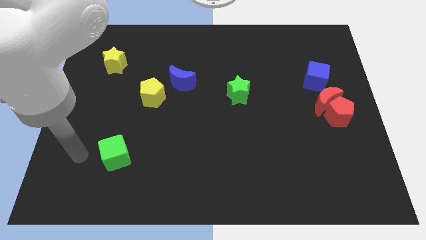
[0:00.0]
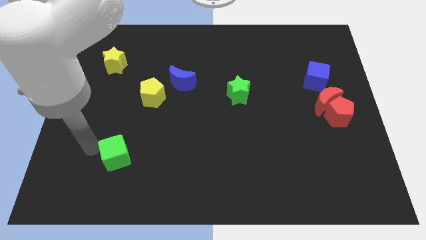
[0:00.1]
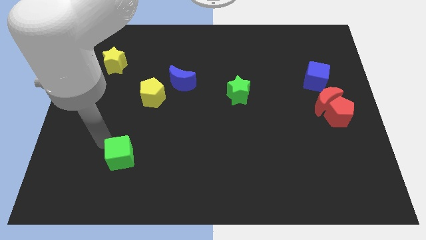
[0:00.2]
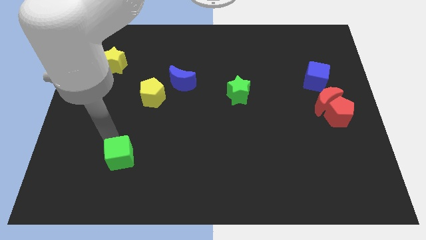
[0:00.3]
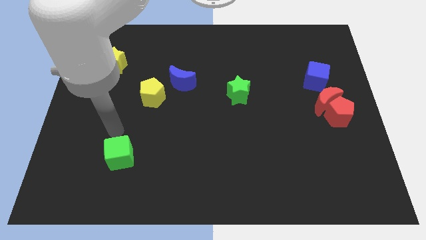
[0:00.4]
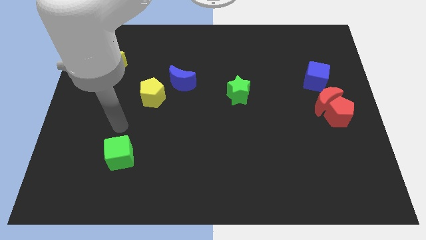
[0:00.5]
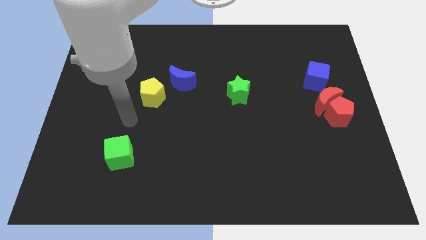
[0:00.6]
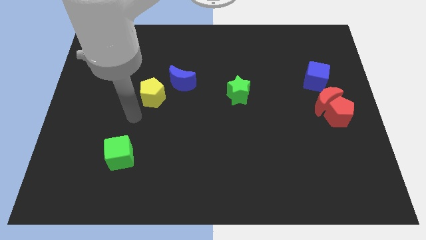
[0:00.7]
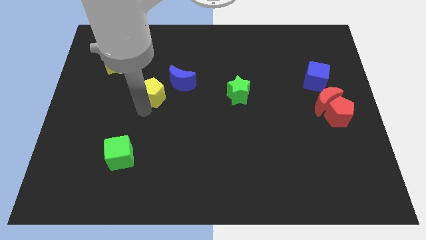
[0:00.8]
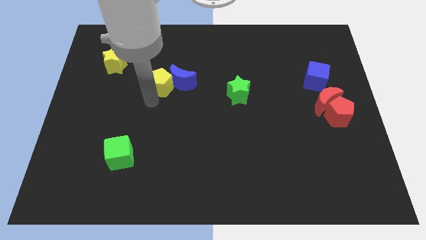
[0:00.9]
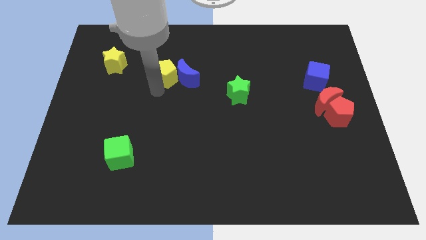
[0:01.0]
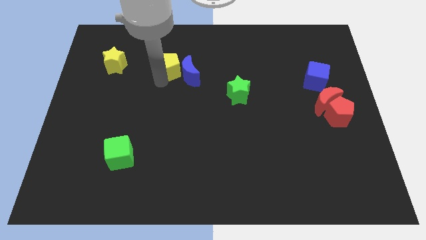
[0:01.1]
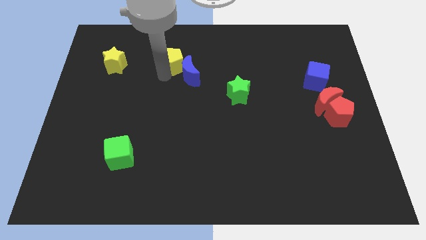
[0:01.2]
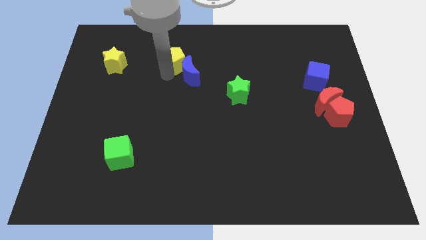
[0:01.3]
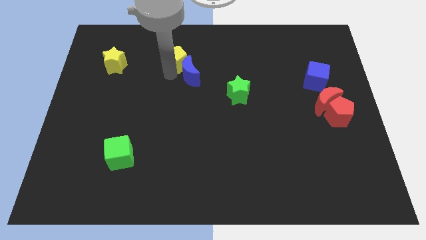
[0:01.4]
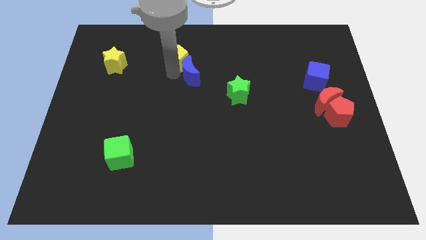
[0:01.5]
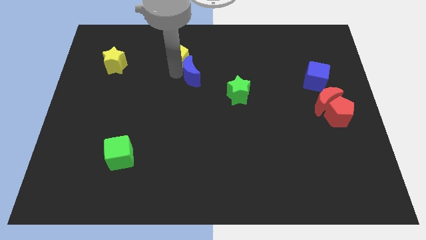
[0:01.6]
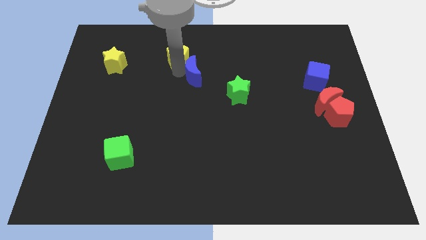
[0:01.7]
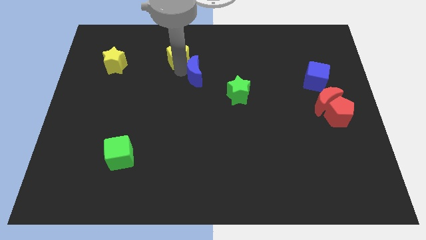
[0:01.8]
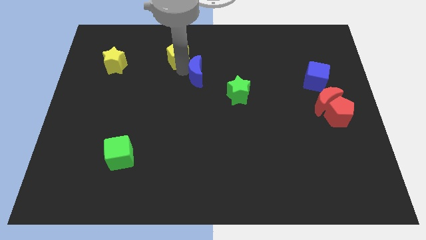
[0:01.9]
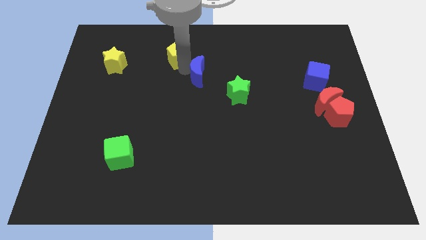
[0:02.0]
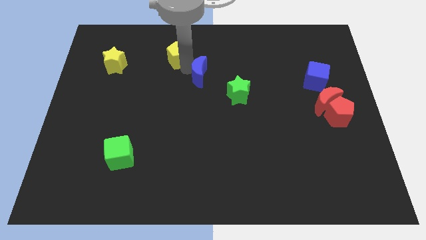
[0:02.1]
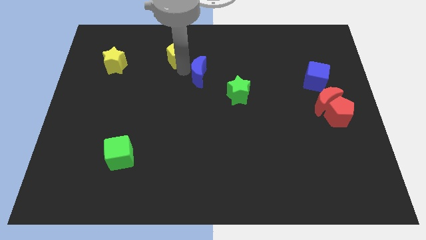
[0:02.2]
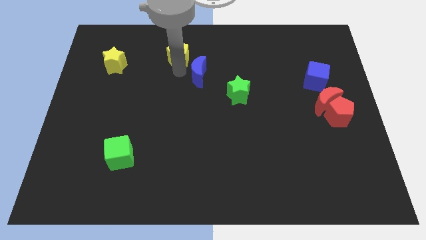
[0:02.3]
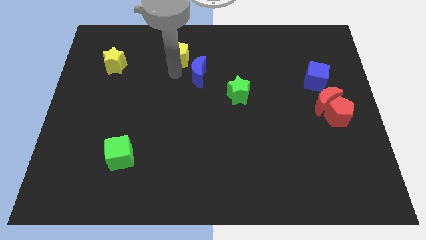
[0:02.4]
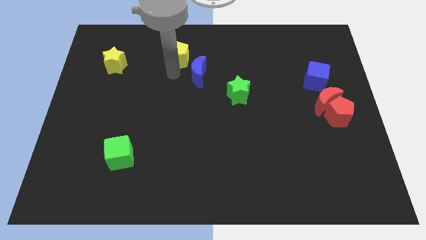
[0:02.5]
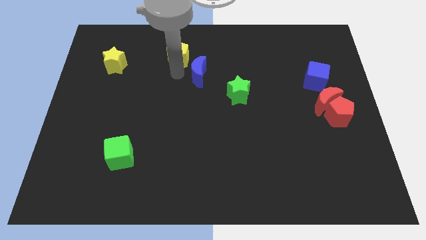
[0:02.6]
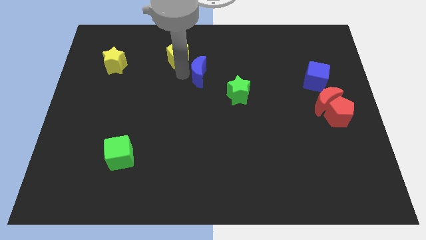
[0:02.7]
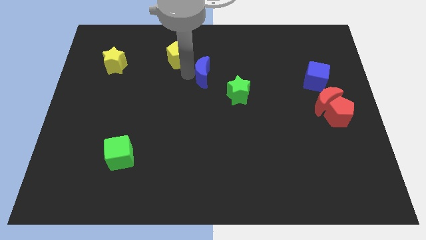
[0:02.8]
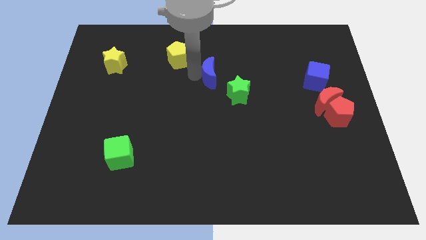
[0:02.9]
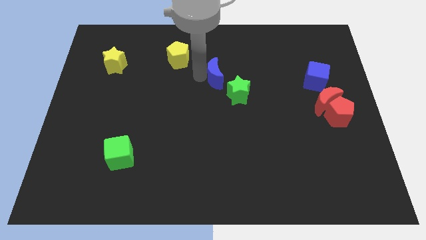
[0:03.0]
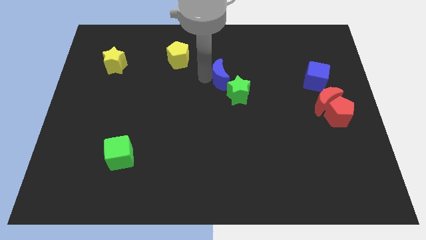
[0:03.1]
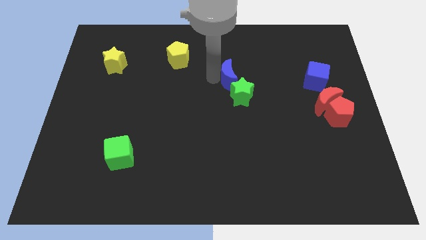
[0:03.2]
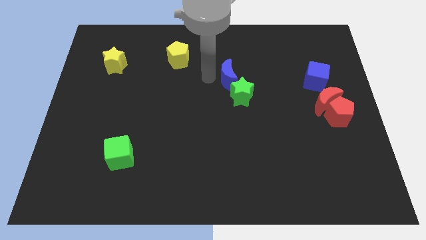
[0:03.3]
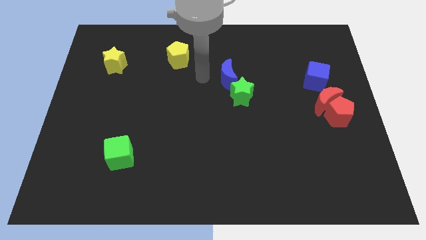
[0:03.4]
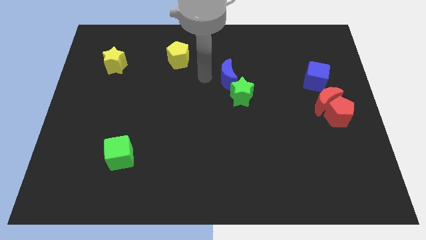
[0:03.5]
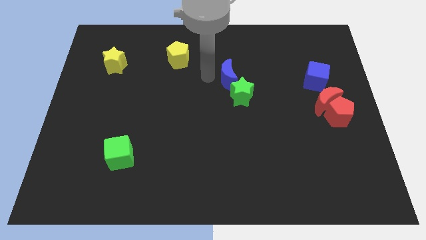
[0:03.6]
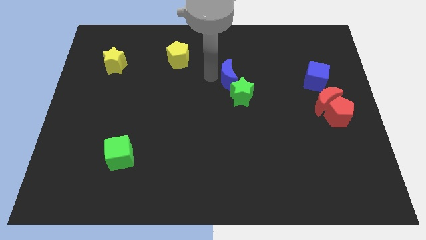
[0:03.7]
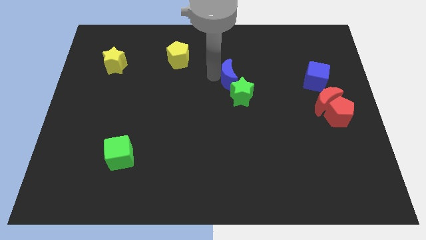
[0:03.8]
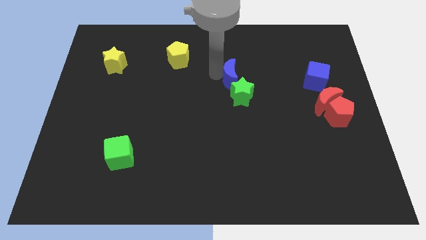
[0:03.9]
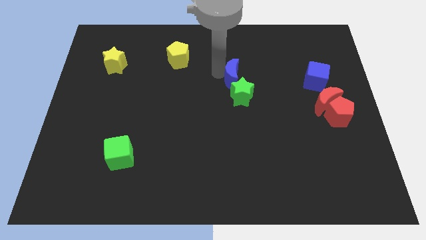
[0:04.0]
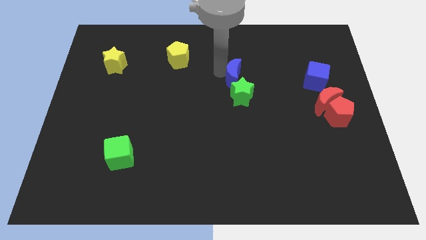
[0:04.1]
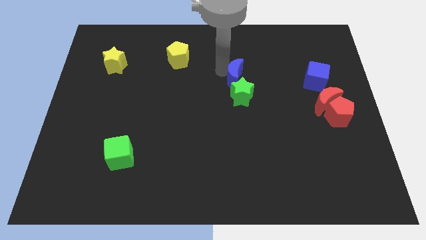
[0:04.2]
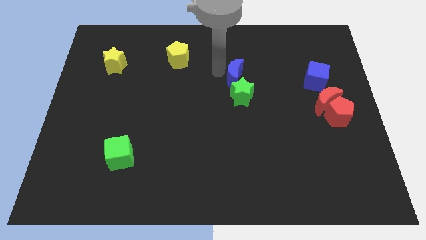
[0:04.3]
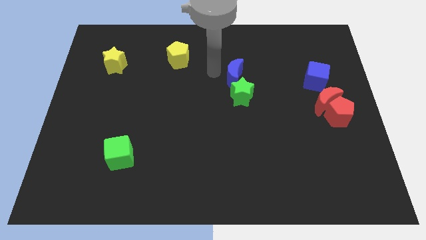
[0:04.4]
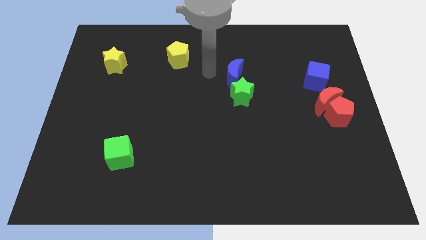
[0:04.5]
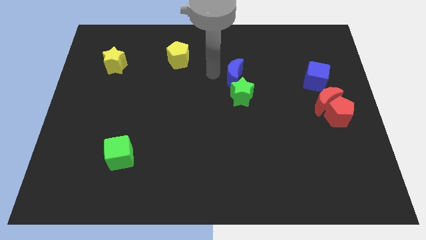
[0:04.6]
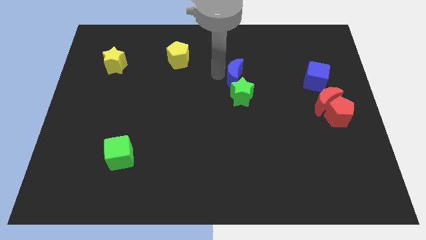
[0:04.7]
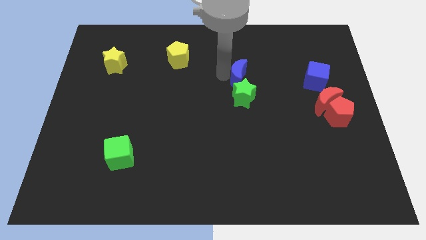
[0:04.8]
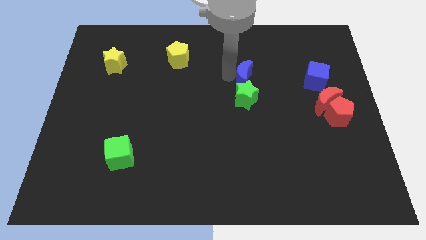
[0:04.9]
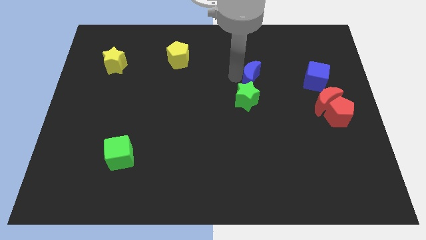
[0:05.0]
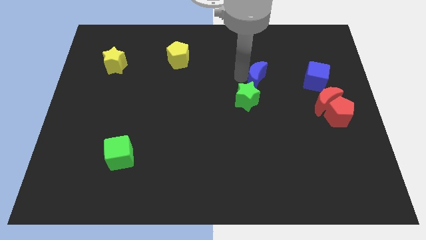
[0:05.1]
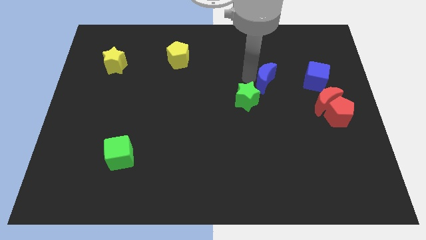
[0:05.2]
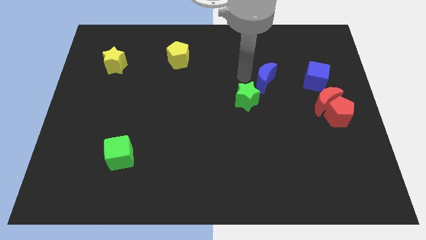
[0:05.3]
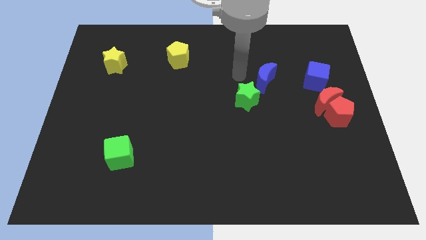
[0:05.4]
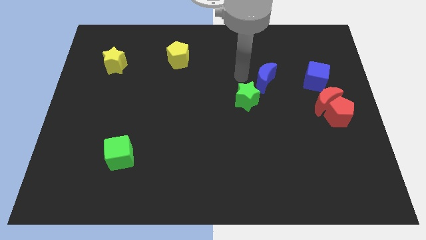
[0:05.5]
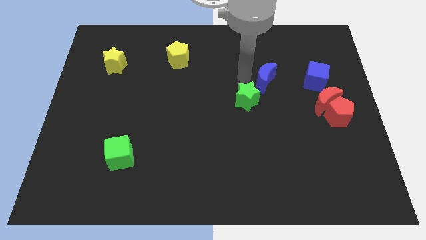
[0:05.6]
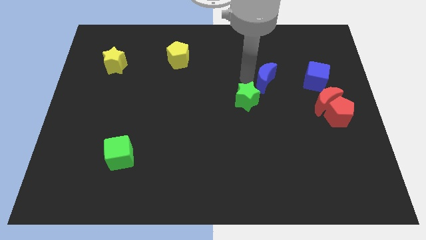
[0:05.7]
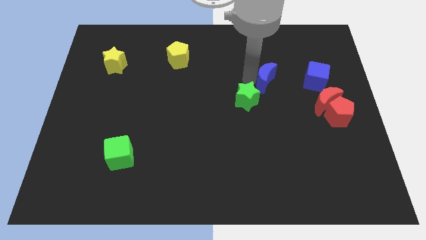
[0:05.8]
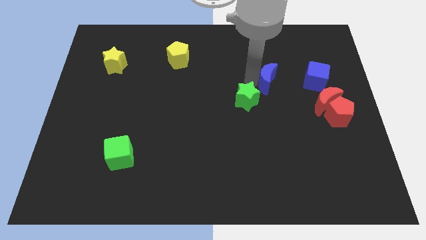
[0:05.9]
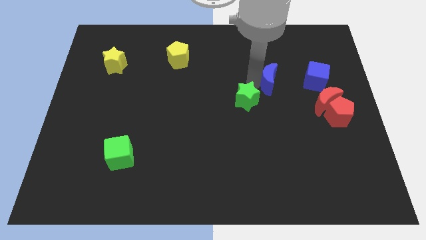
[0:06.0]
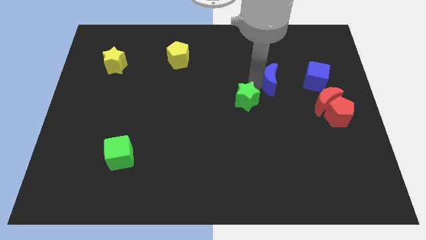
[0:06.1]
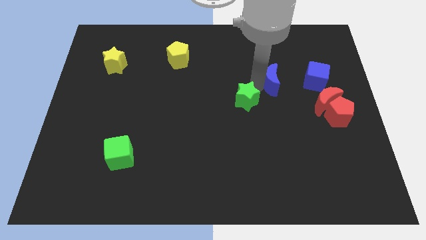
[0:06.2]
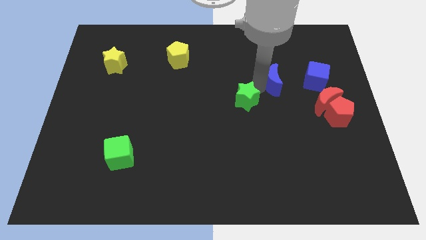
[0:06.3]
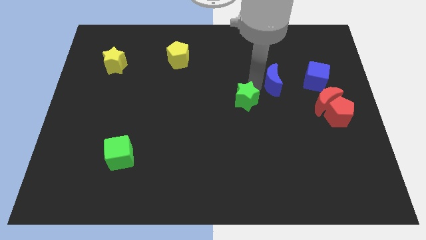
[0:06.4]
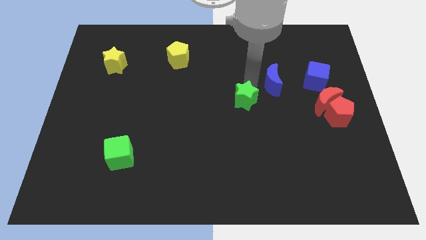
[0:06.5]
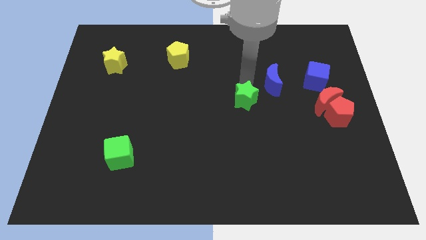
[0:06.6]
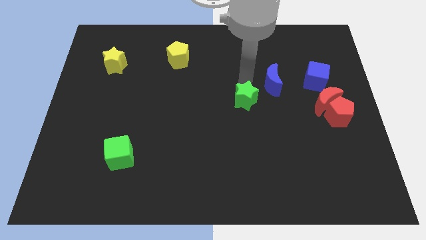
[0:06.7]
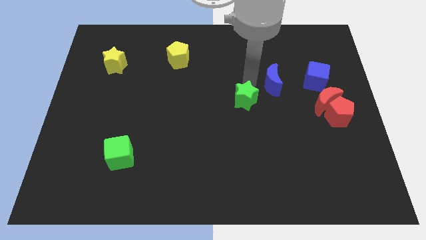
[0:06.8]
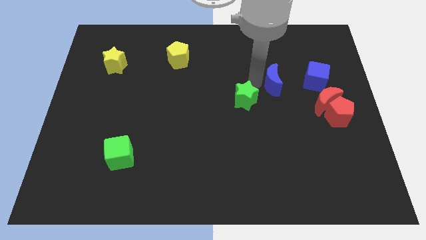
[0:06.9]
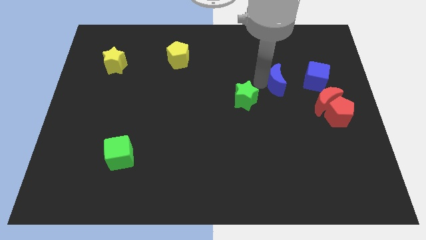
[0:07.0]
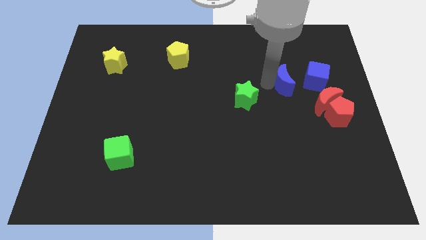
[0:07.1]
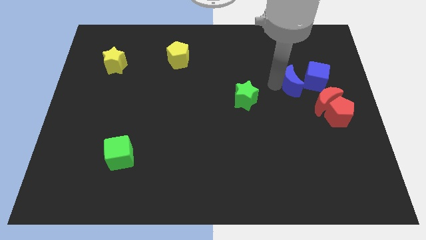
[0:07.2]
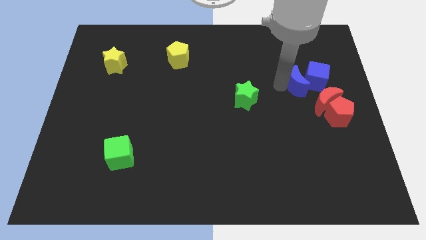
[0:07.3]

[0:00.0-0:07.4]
move the blue moon to the blue cube
